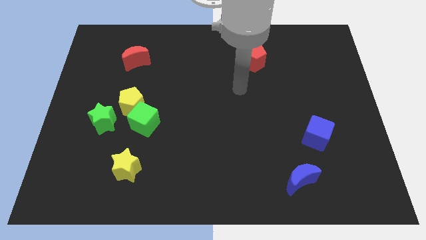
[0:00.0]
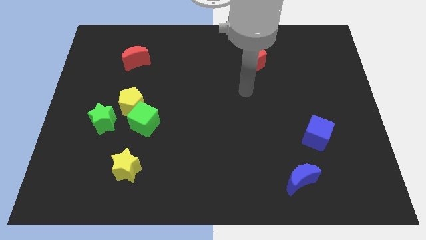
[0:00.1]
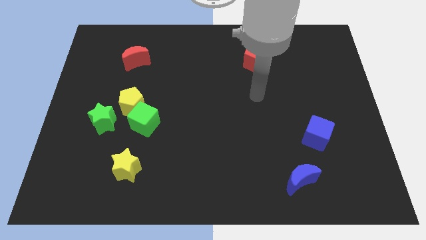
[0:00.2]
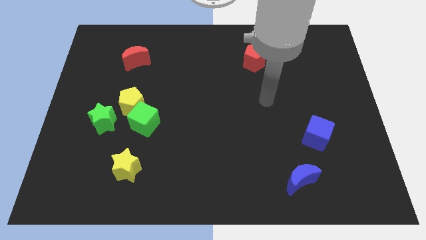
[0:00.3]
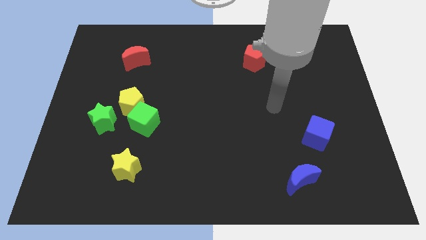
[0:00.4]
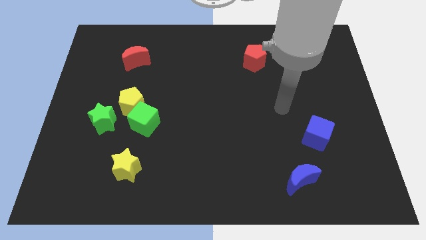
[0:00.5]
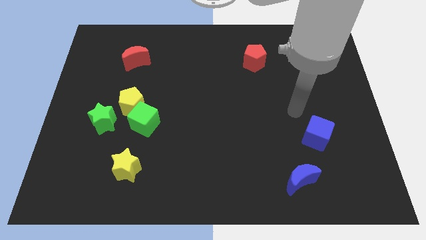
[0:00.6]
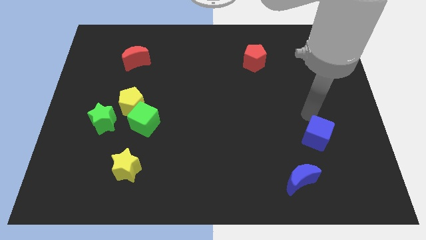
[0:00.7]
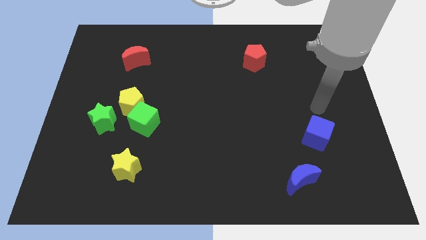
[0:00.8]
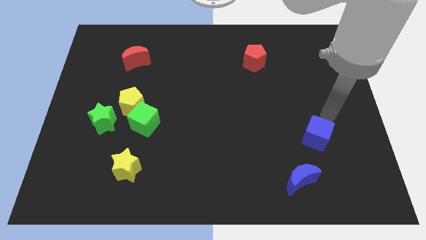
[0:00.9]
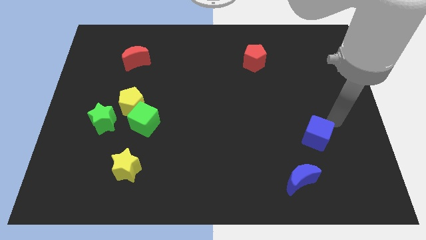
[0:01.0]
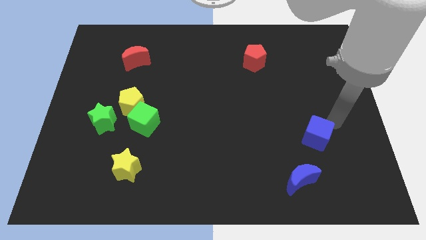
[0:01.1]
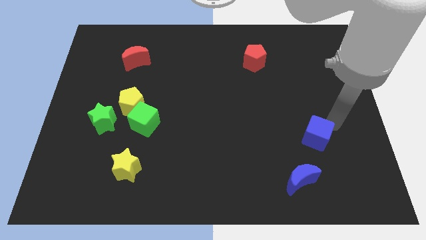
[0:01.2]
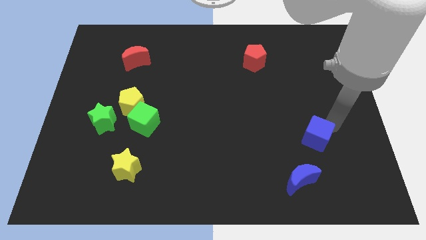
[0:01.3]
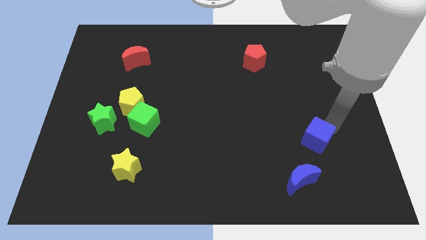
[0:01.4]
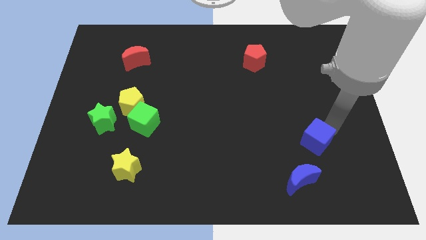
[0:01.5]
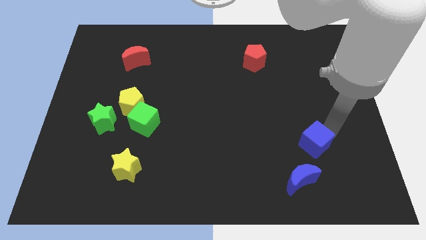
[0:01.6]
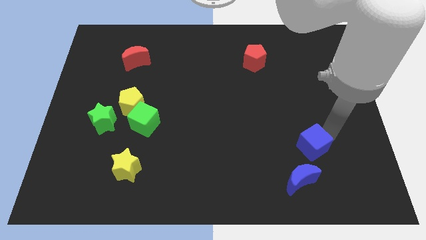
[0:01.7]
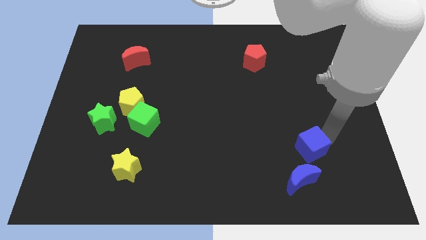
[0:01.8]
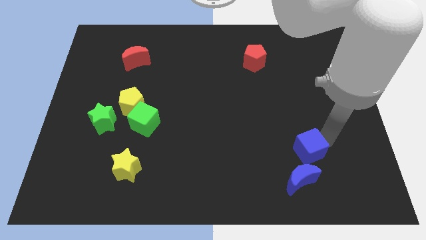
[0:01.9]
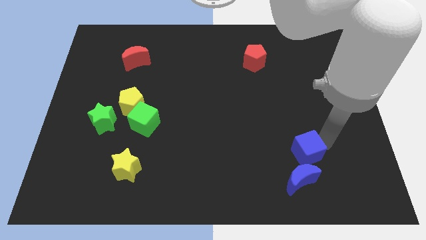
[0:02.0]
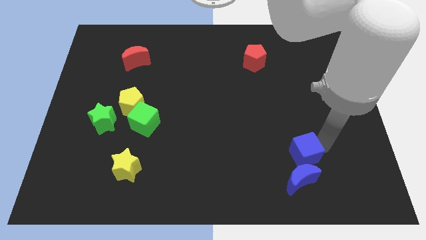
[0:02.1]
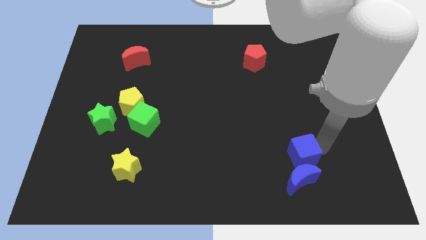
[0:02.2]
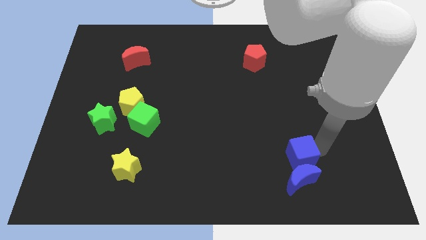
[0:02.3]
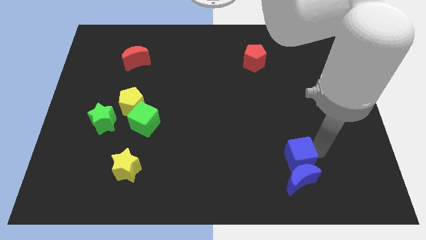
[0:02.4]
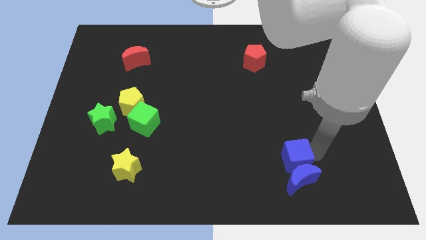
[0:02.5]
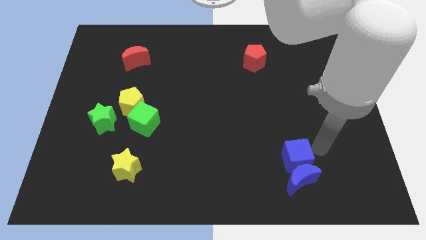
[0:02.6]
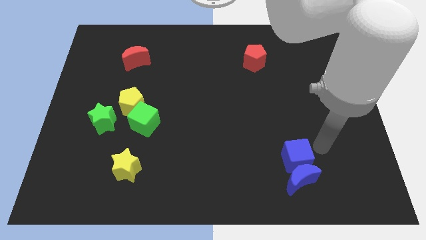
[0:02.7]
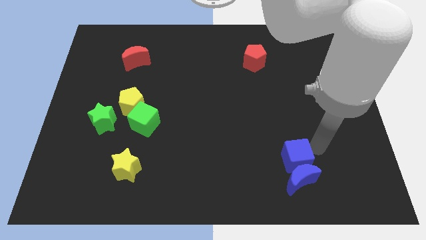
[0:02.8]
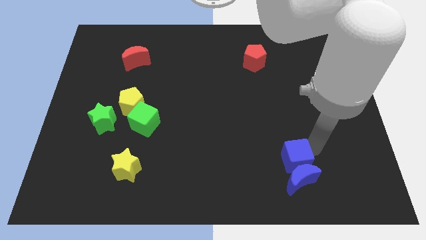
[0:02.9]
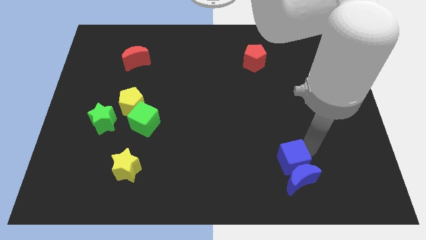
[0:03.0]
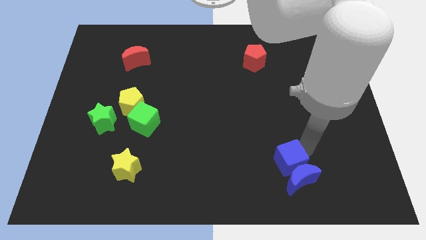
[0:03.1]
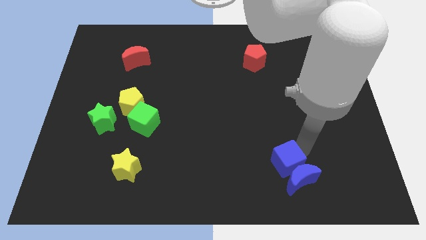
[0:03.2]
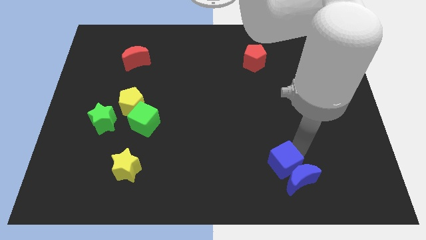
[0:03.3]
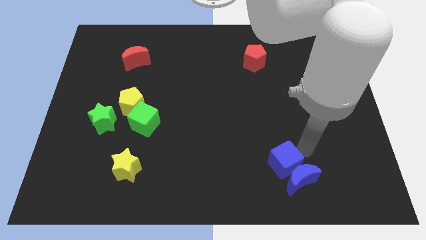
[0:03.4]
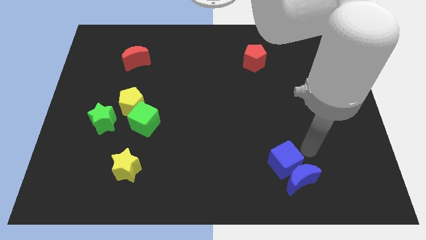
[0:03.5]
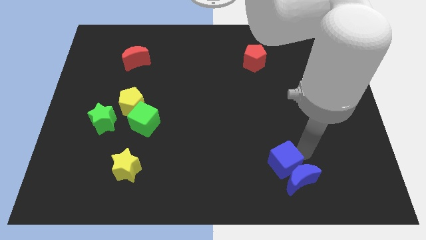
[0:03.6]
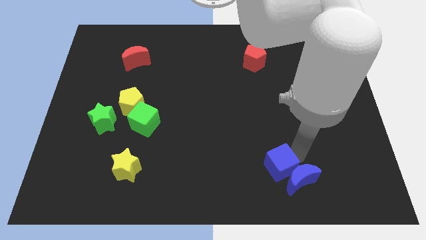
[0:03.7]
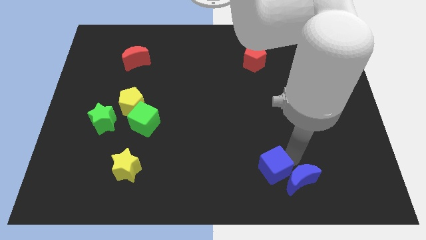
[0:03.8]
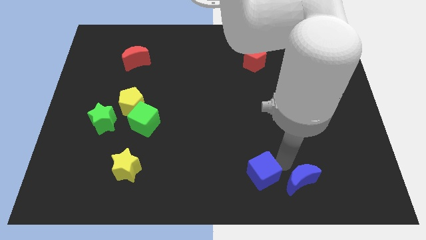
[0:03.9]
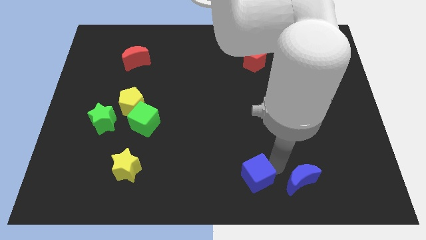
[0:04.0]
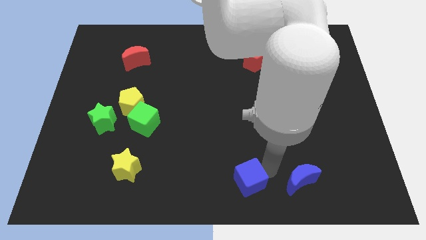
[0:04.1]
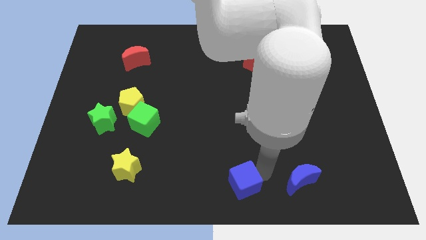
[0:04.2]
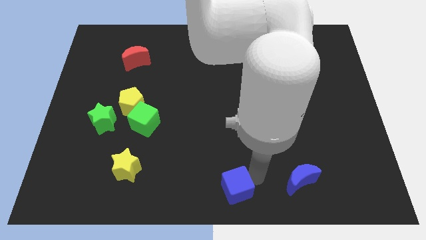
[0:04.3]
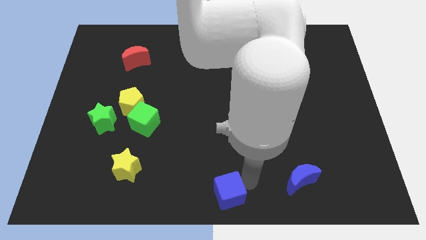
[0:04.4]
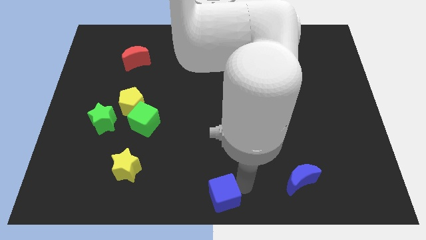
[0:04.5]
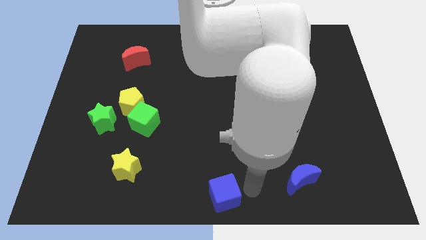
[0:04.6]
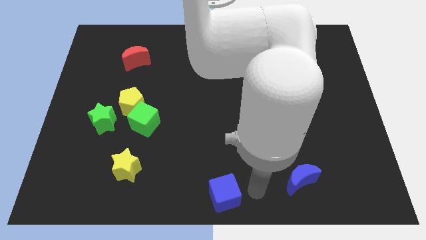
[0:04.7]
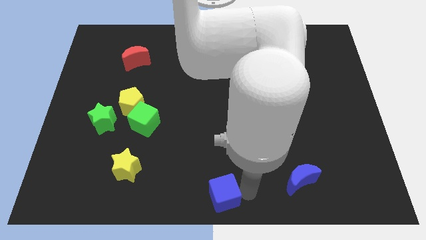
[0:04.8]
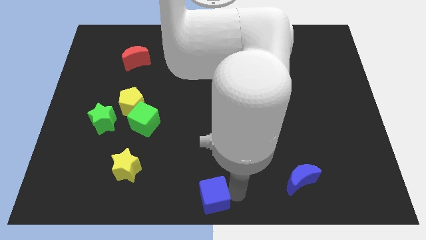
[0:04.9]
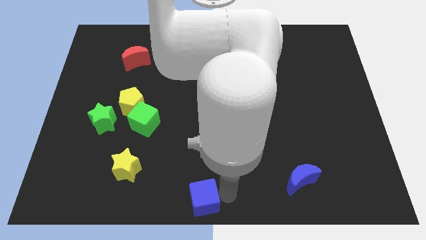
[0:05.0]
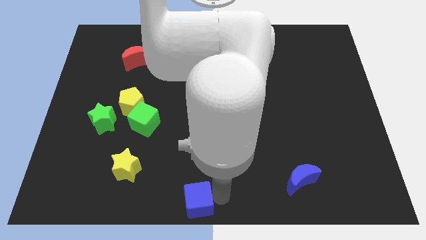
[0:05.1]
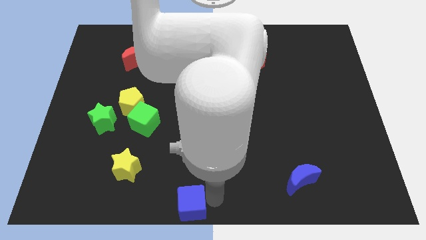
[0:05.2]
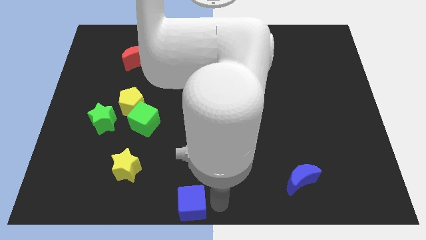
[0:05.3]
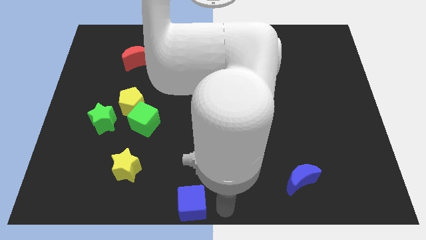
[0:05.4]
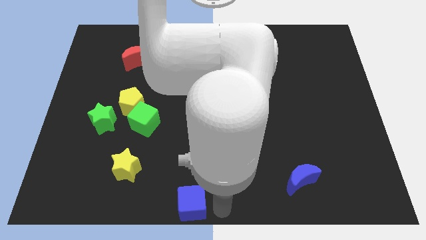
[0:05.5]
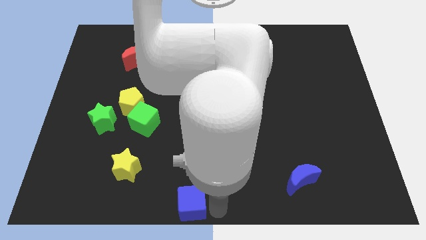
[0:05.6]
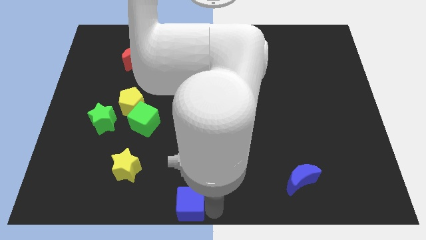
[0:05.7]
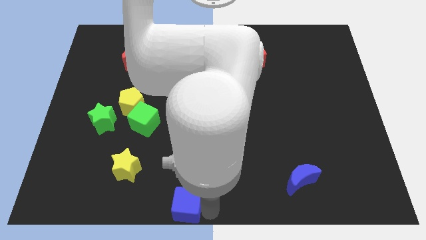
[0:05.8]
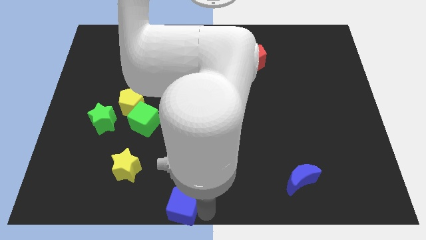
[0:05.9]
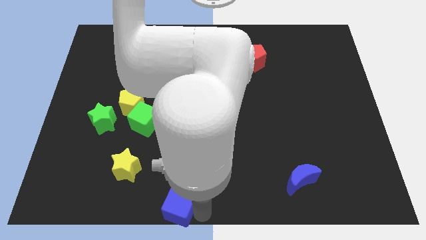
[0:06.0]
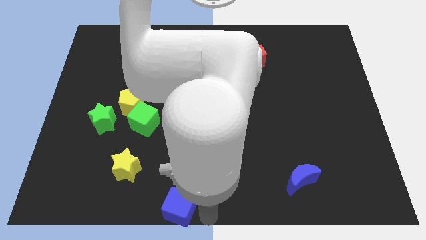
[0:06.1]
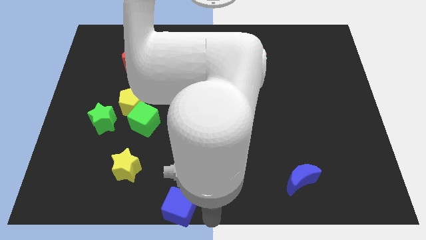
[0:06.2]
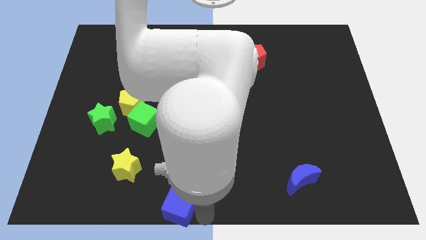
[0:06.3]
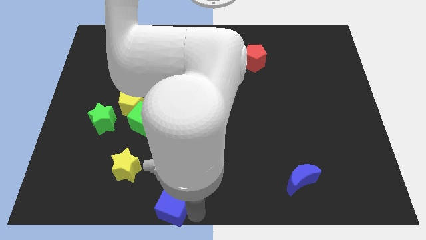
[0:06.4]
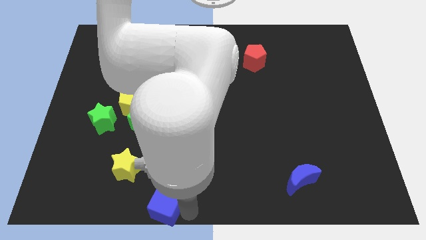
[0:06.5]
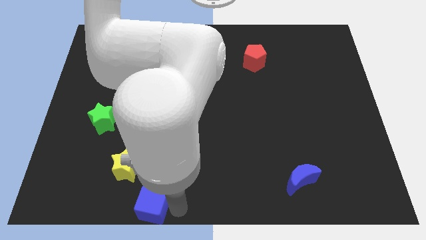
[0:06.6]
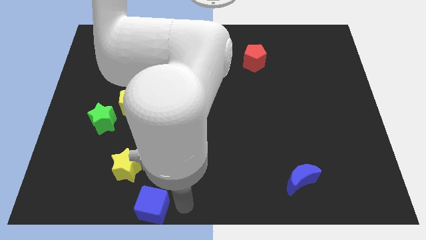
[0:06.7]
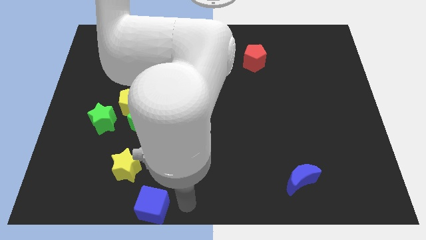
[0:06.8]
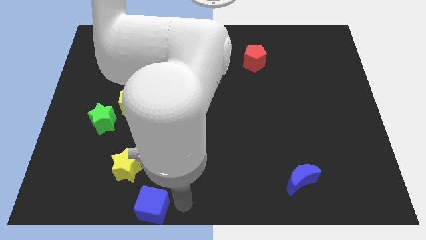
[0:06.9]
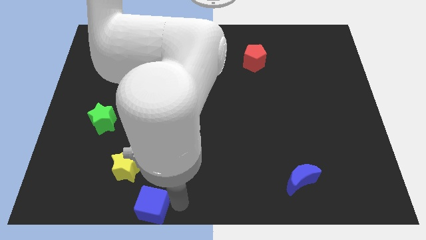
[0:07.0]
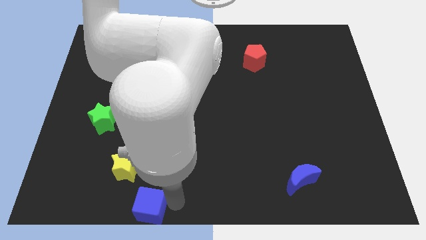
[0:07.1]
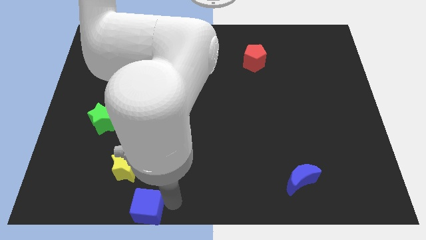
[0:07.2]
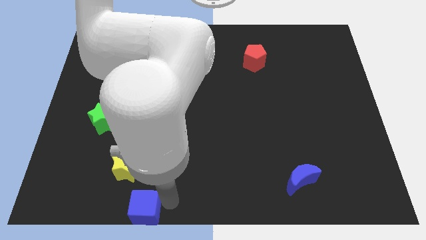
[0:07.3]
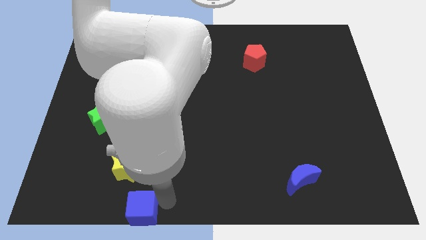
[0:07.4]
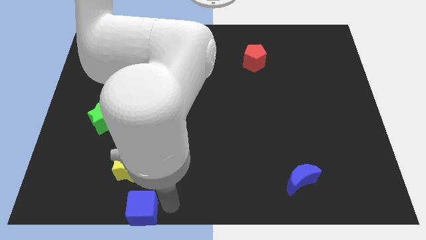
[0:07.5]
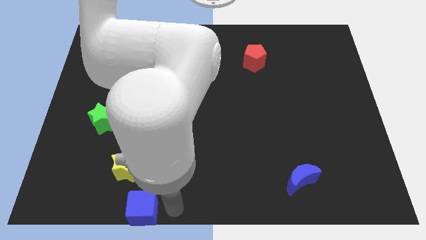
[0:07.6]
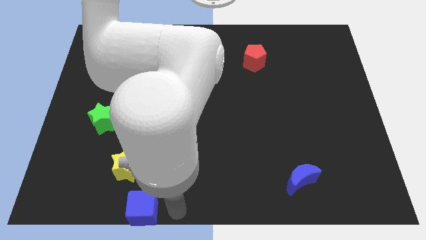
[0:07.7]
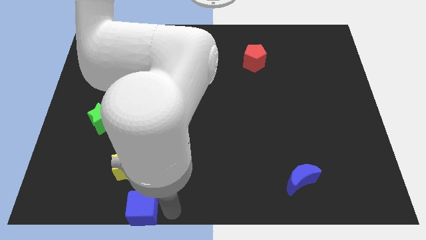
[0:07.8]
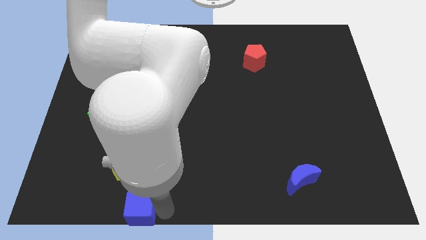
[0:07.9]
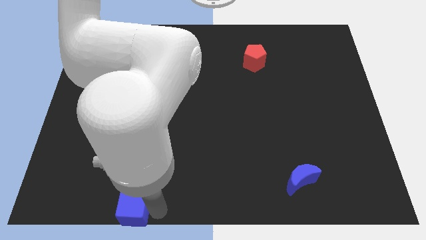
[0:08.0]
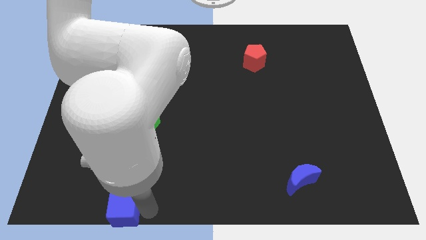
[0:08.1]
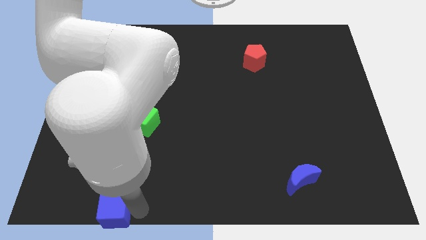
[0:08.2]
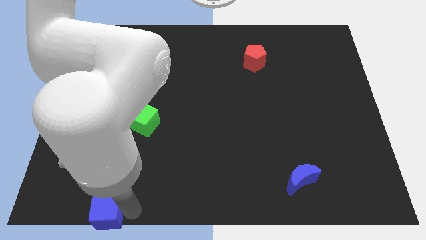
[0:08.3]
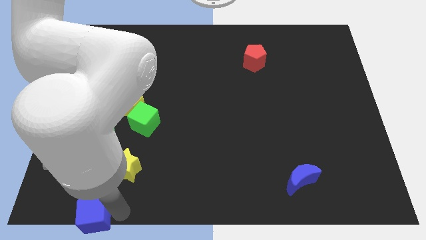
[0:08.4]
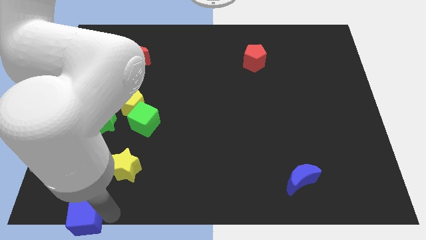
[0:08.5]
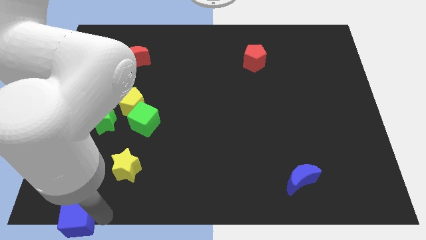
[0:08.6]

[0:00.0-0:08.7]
move the blue cube to the bottom left of the board
